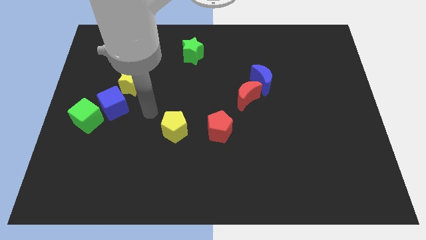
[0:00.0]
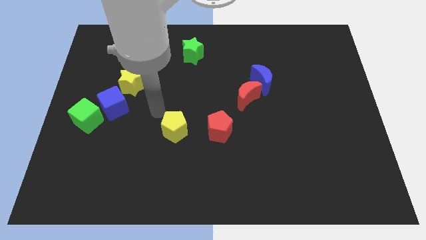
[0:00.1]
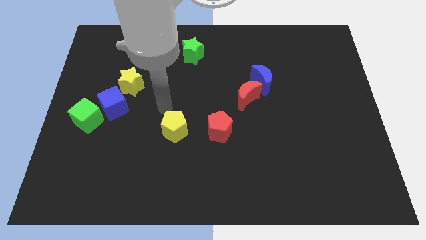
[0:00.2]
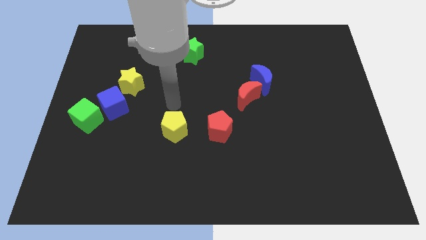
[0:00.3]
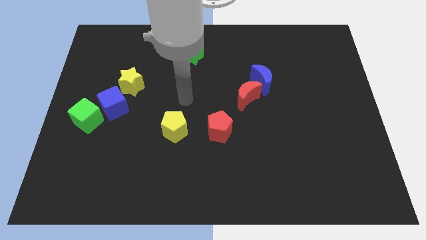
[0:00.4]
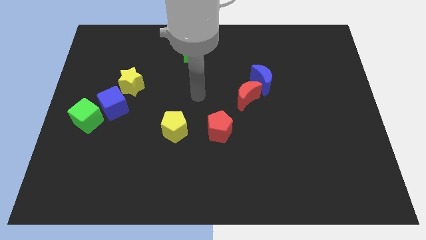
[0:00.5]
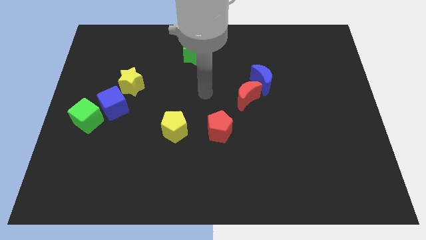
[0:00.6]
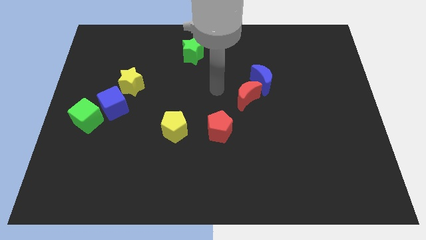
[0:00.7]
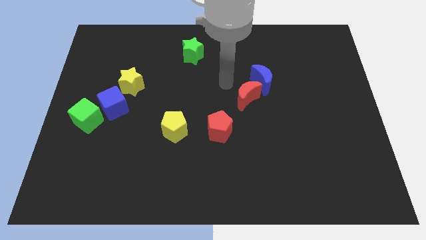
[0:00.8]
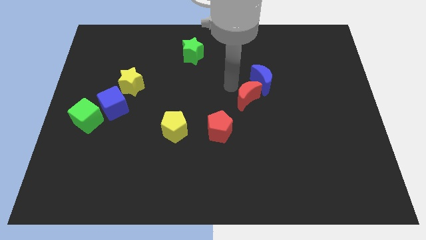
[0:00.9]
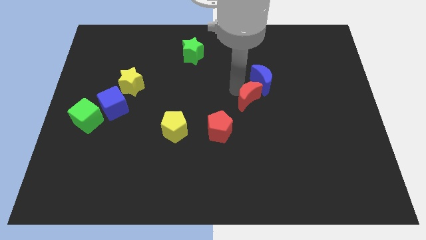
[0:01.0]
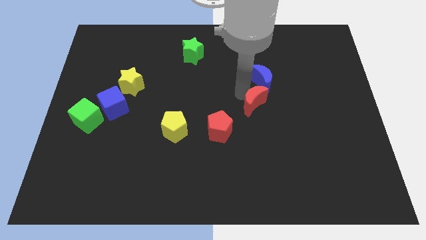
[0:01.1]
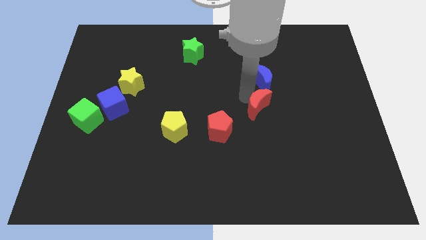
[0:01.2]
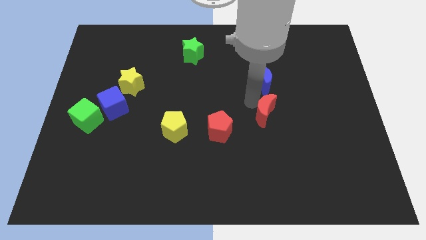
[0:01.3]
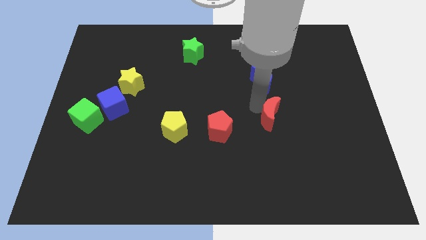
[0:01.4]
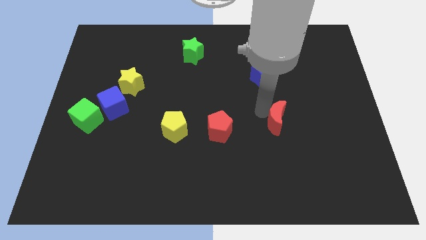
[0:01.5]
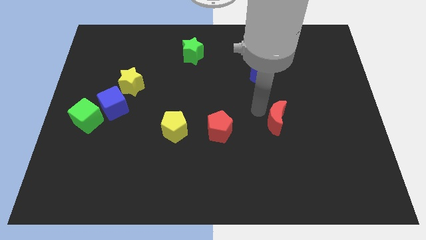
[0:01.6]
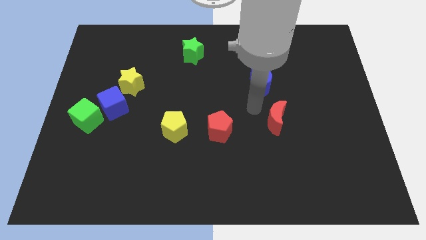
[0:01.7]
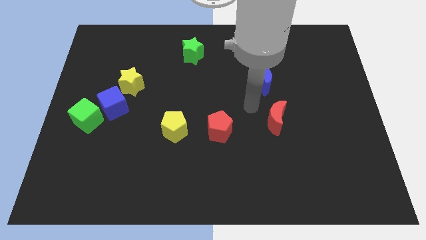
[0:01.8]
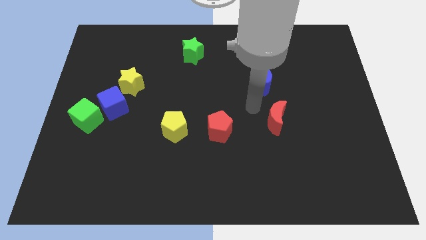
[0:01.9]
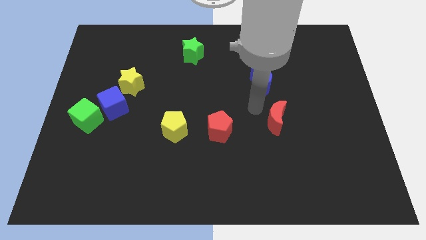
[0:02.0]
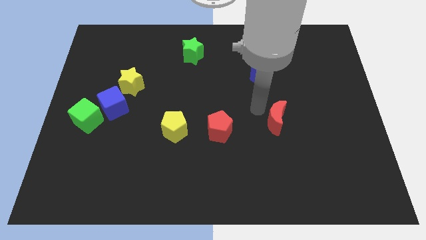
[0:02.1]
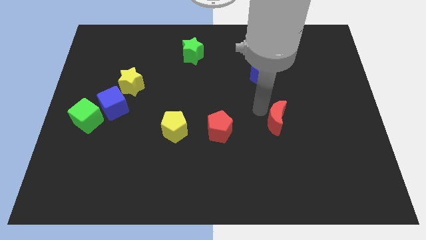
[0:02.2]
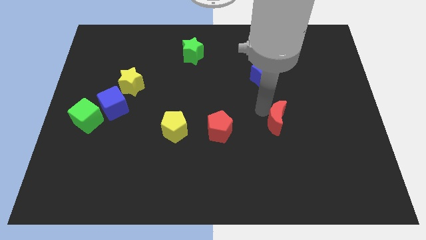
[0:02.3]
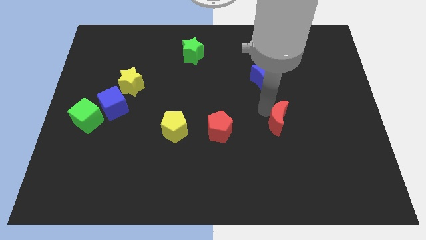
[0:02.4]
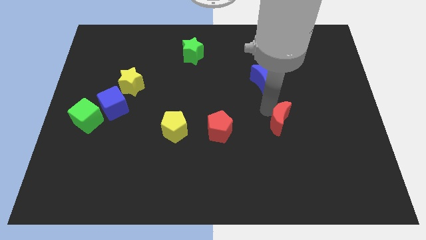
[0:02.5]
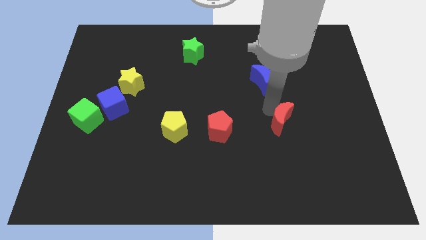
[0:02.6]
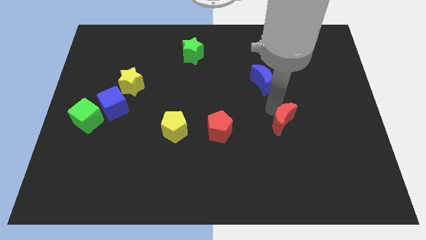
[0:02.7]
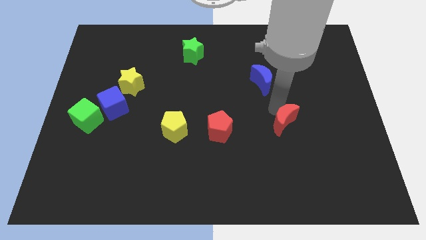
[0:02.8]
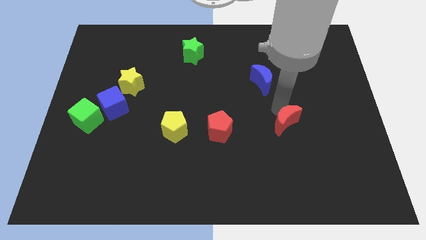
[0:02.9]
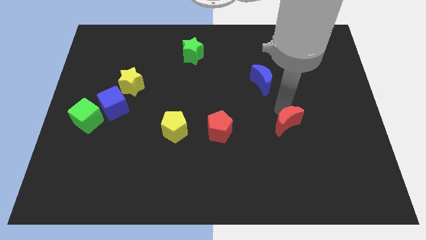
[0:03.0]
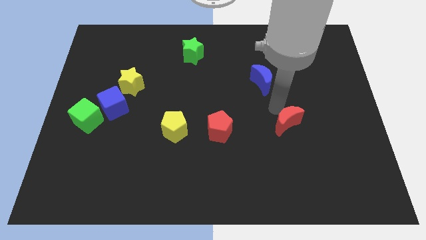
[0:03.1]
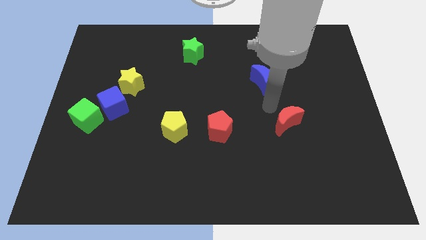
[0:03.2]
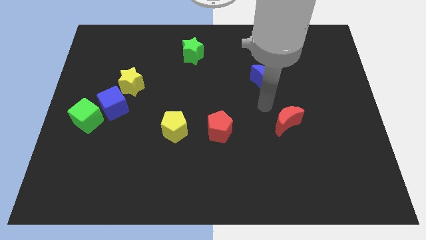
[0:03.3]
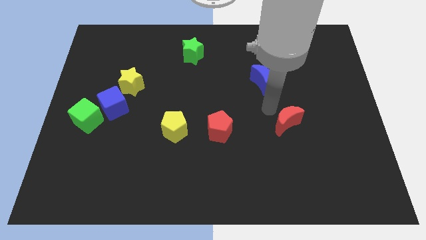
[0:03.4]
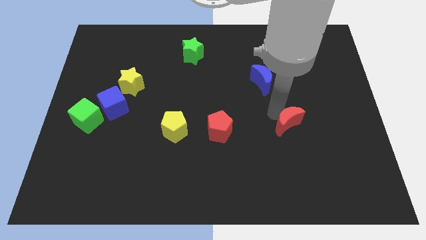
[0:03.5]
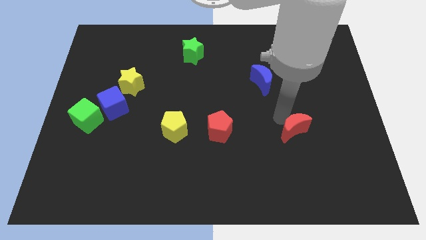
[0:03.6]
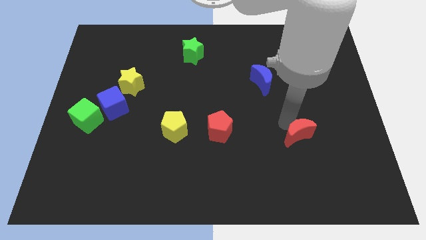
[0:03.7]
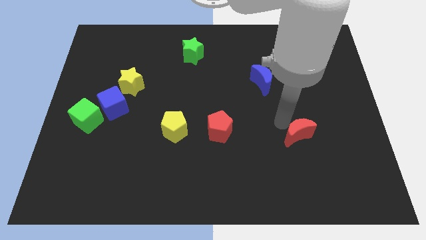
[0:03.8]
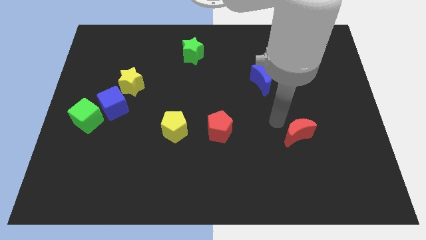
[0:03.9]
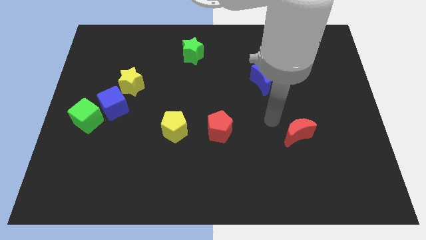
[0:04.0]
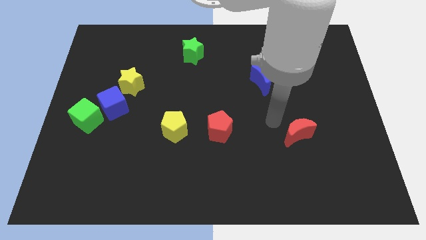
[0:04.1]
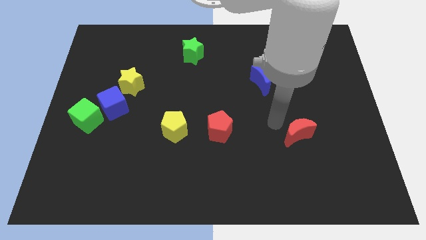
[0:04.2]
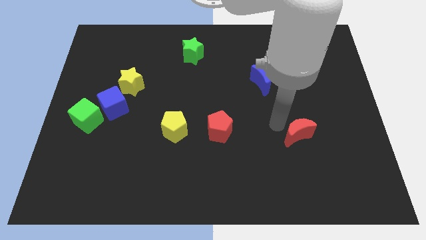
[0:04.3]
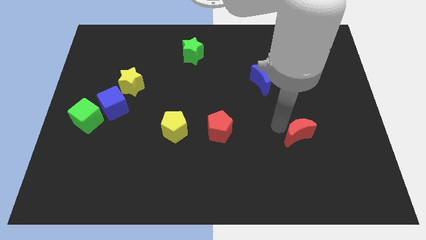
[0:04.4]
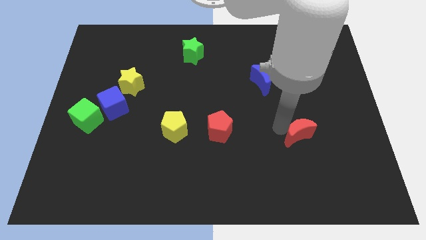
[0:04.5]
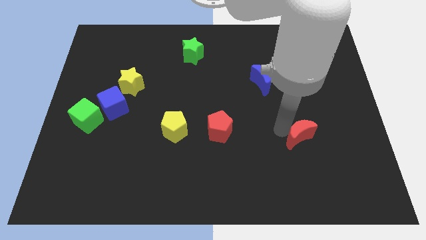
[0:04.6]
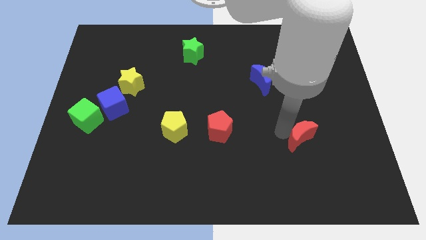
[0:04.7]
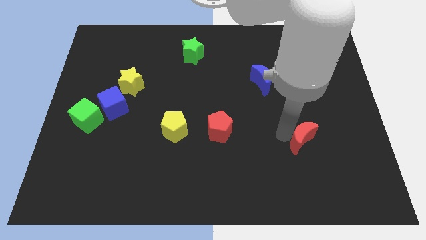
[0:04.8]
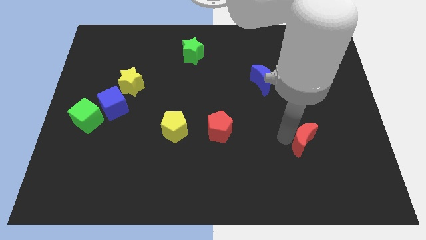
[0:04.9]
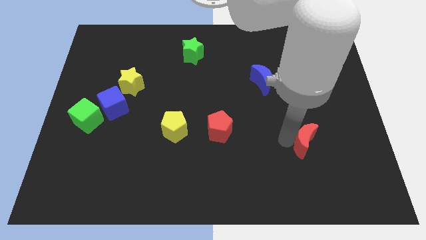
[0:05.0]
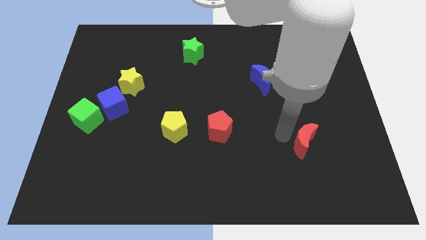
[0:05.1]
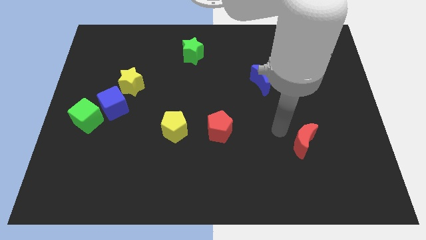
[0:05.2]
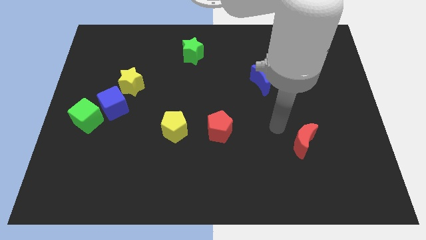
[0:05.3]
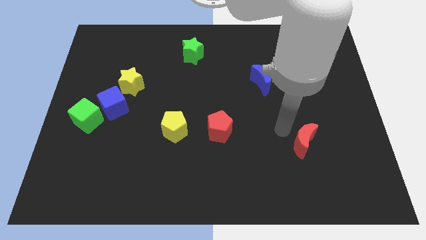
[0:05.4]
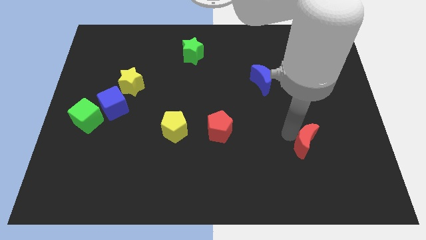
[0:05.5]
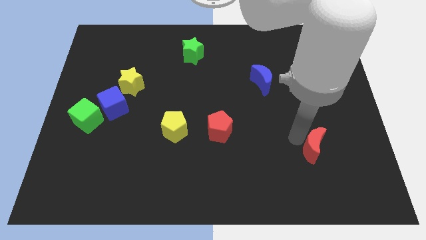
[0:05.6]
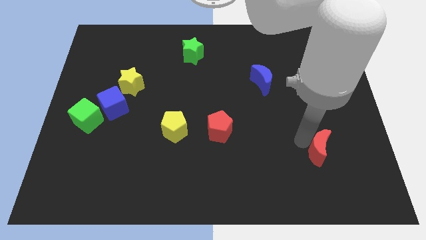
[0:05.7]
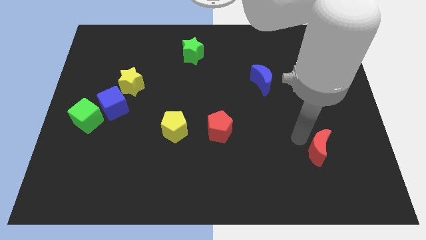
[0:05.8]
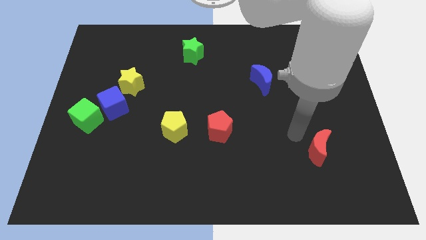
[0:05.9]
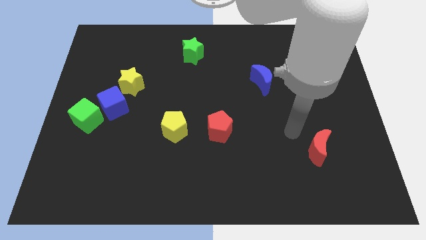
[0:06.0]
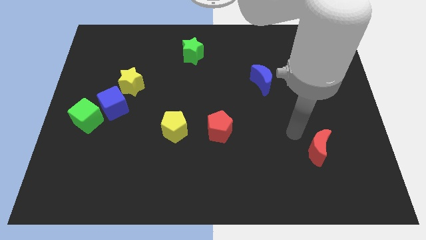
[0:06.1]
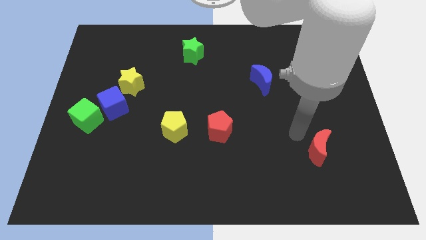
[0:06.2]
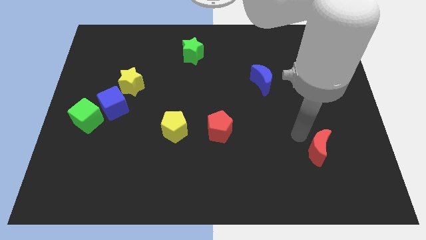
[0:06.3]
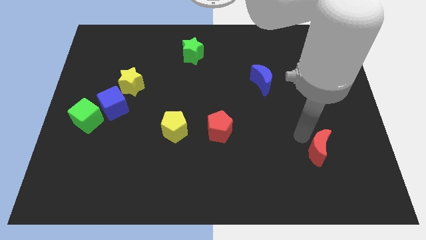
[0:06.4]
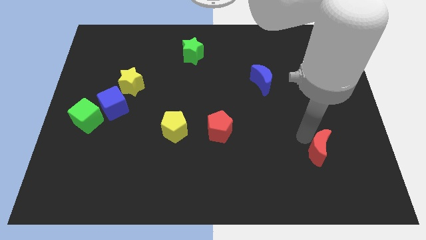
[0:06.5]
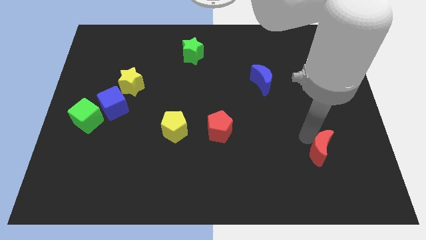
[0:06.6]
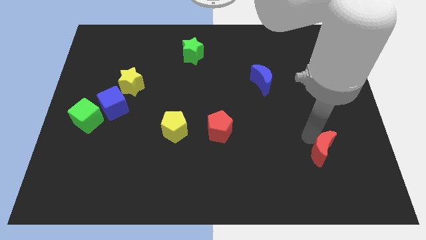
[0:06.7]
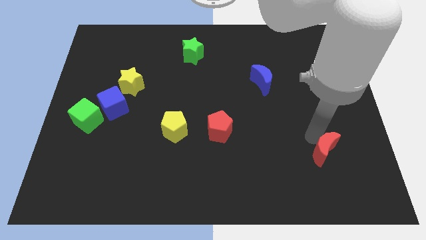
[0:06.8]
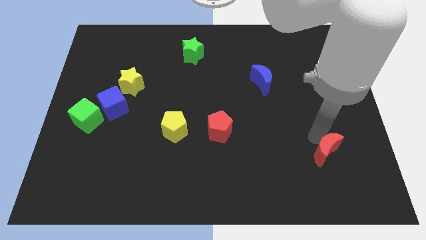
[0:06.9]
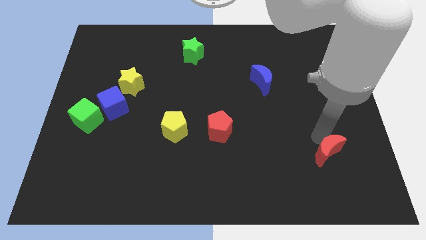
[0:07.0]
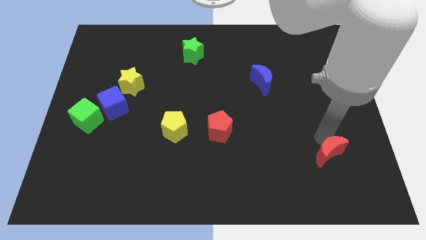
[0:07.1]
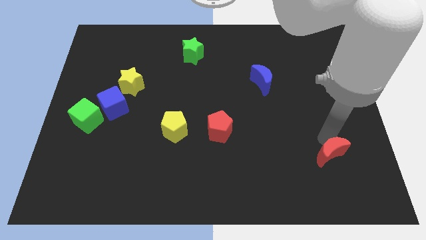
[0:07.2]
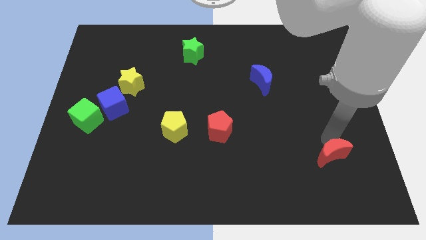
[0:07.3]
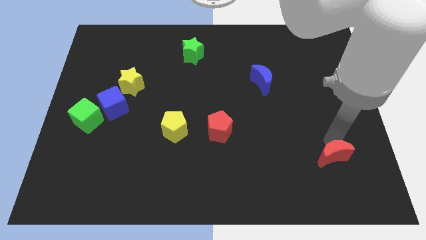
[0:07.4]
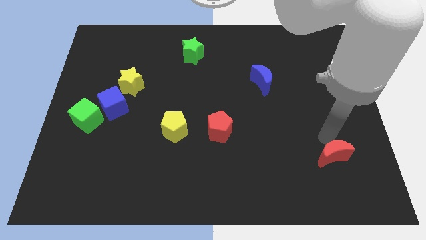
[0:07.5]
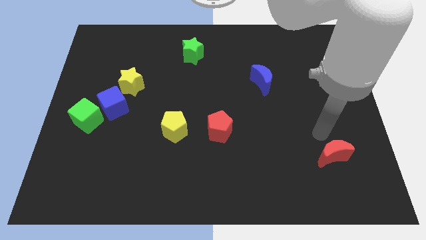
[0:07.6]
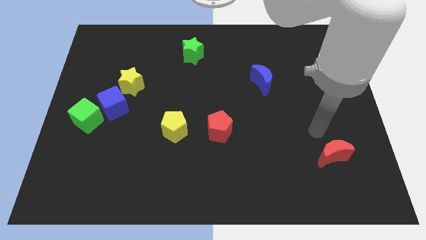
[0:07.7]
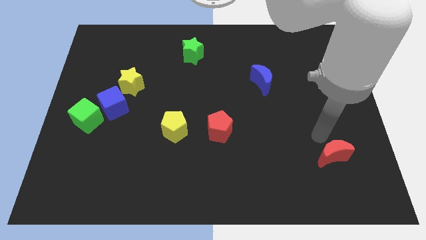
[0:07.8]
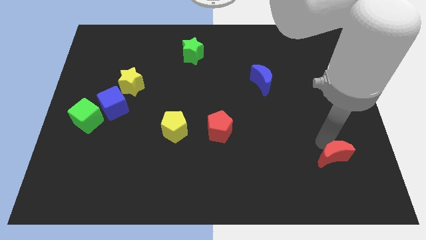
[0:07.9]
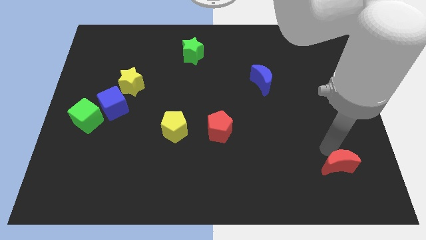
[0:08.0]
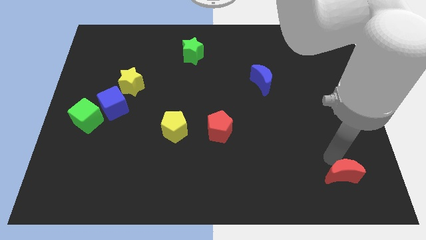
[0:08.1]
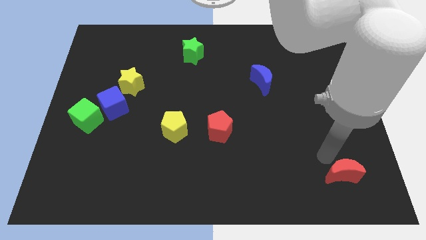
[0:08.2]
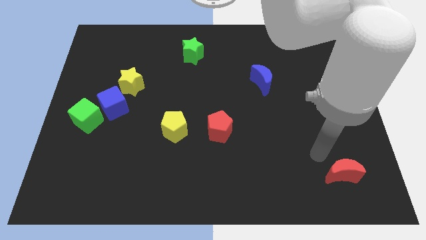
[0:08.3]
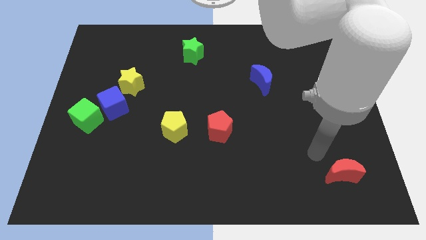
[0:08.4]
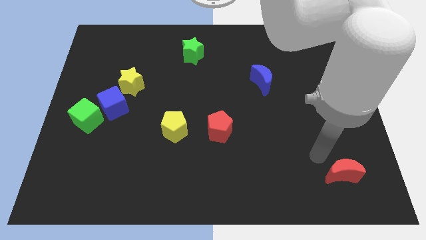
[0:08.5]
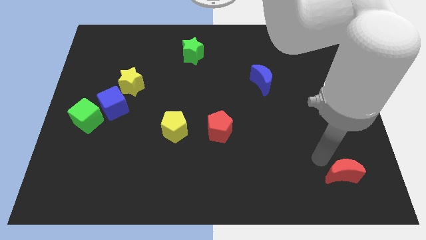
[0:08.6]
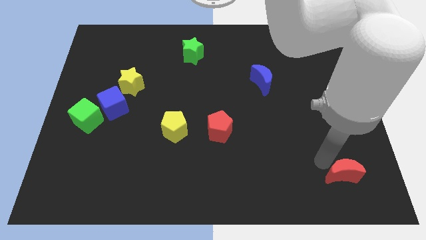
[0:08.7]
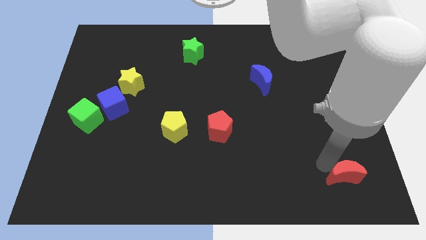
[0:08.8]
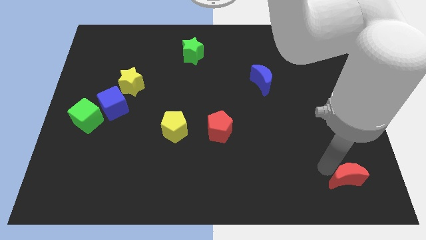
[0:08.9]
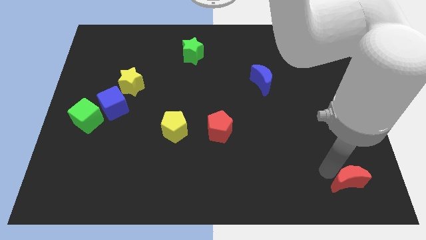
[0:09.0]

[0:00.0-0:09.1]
push the red moon to the bottom right corner
